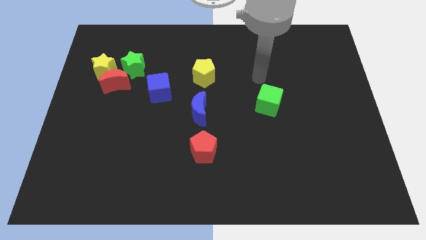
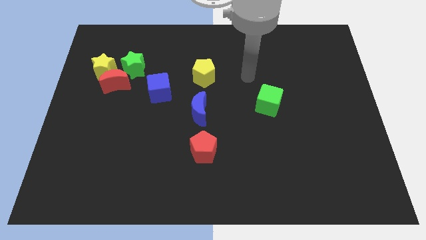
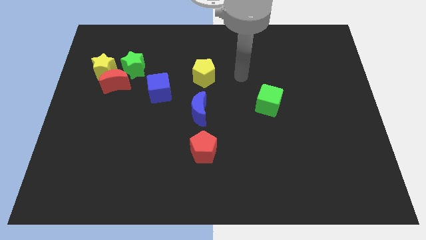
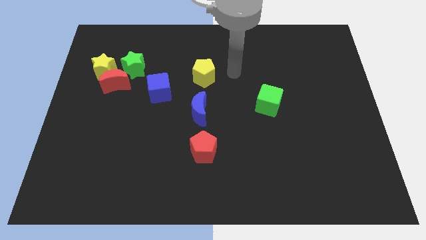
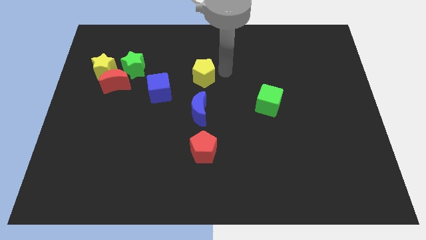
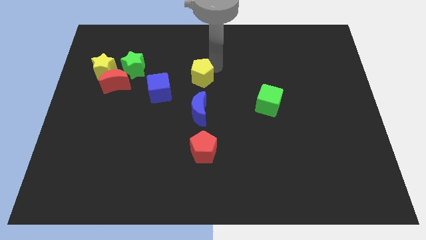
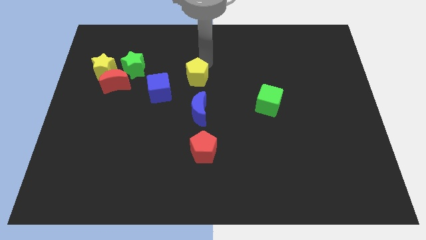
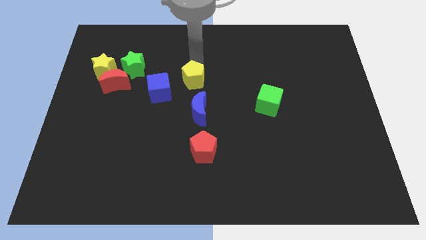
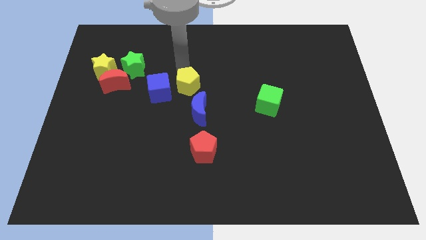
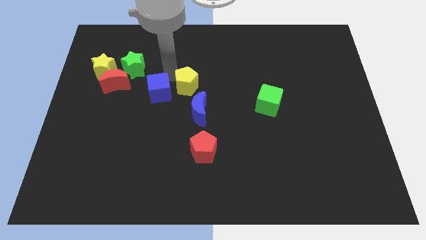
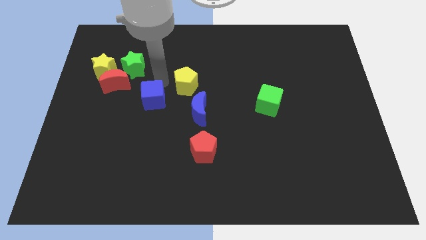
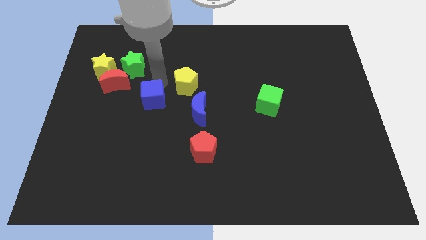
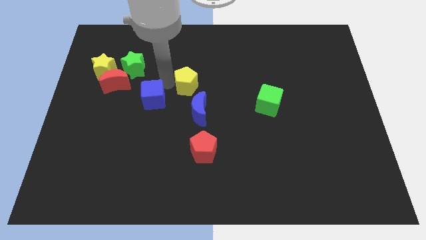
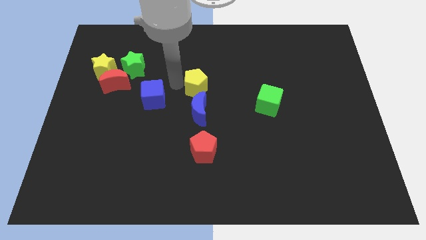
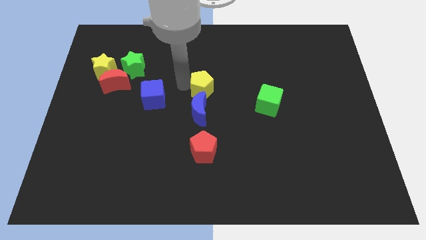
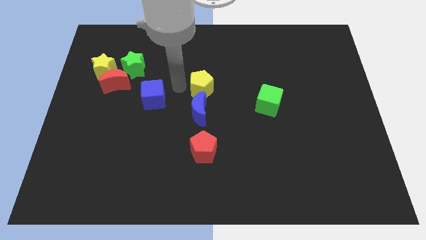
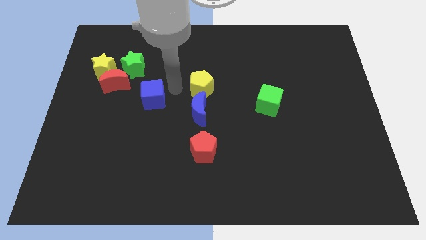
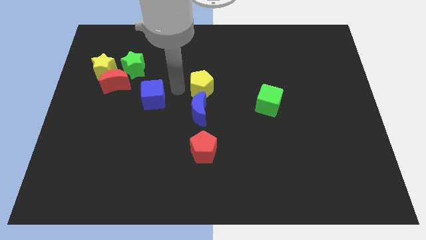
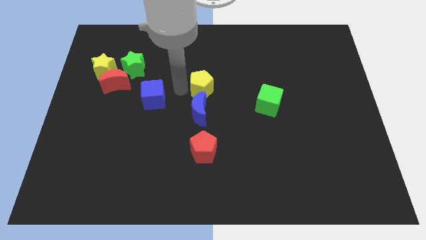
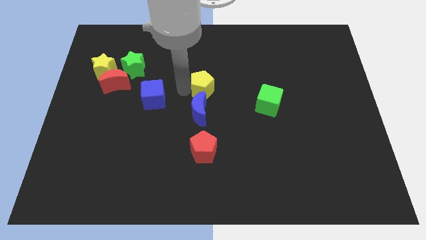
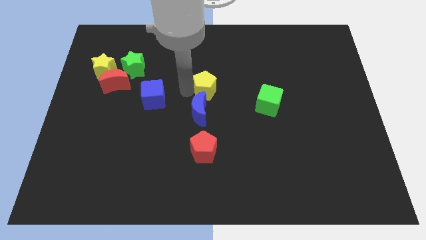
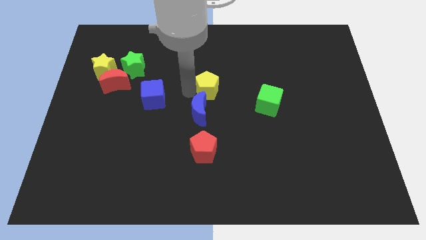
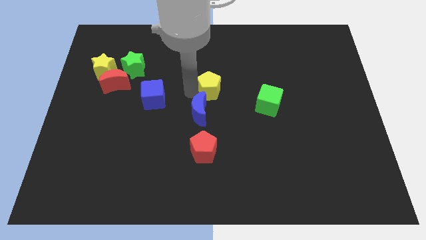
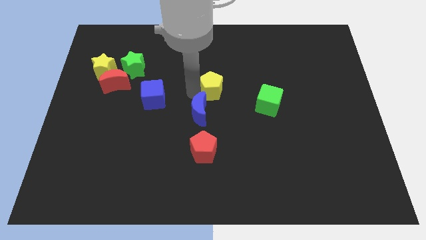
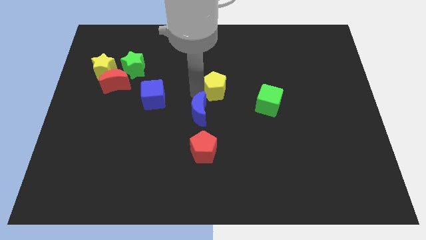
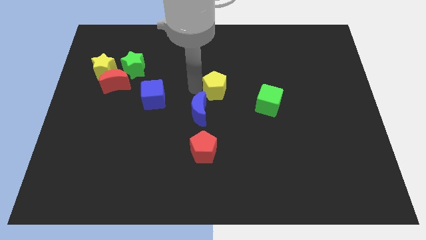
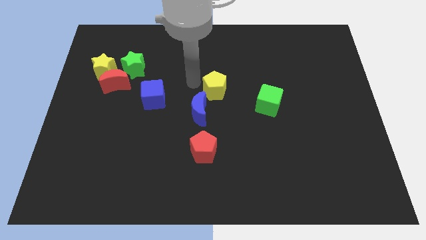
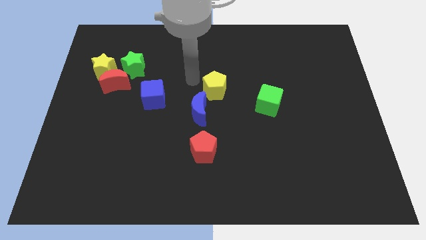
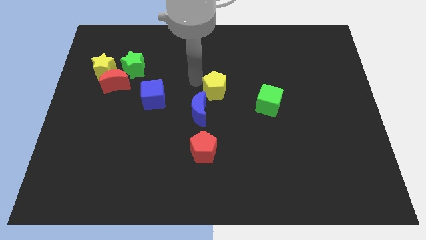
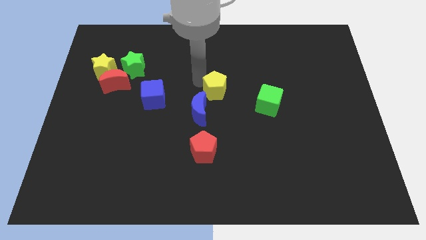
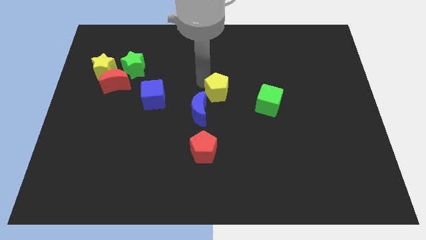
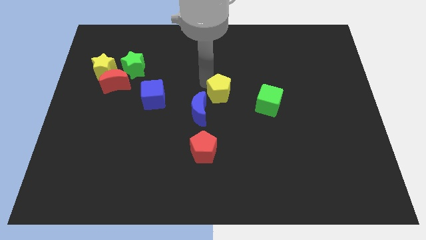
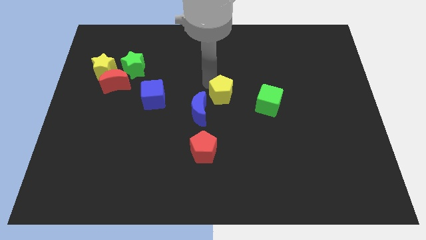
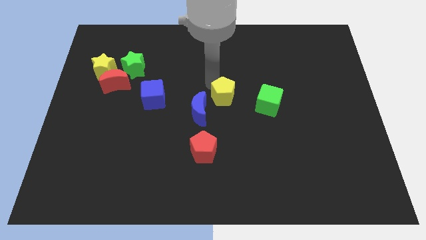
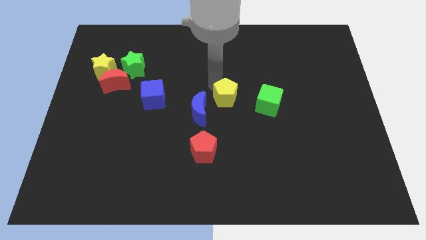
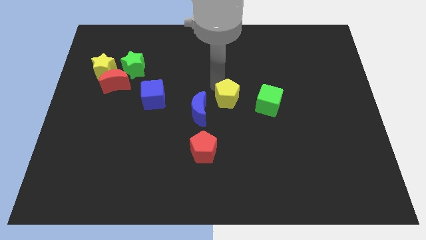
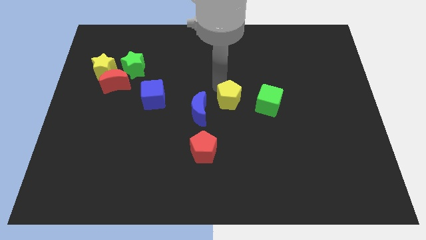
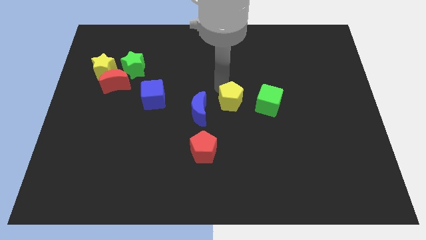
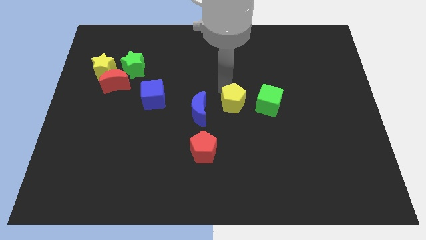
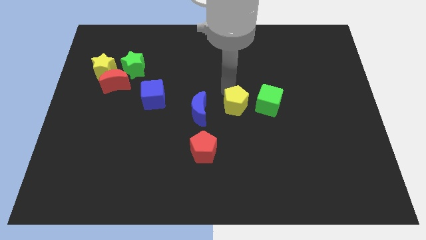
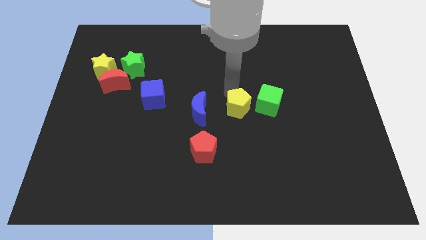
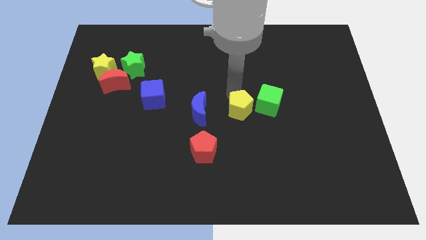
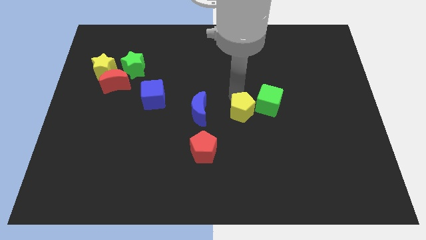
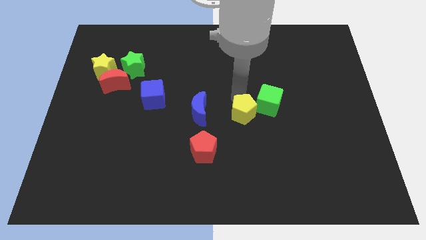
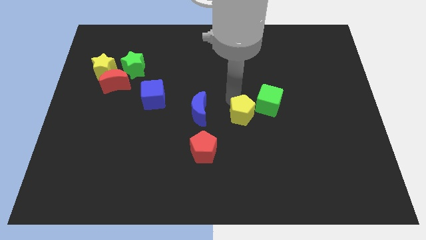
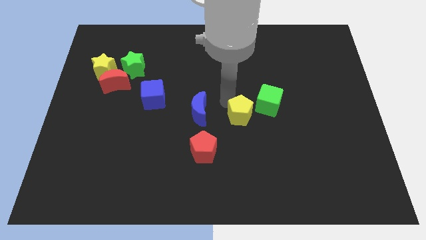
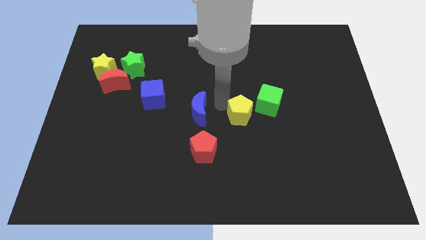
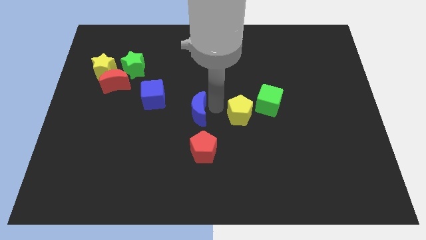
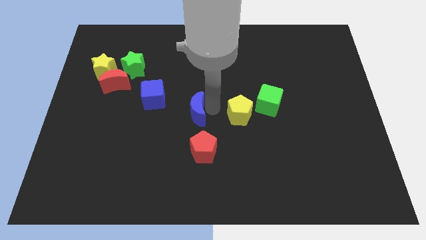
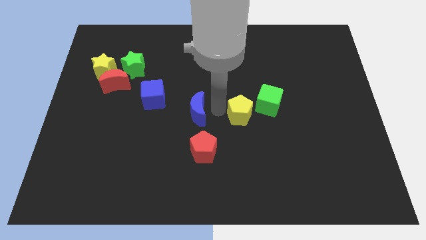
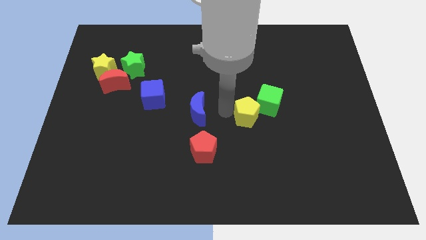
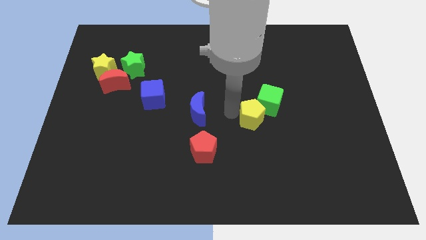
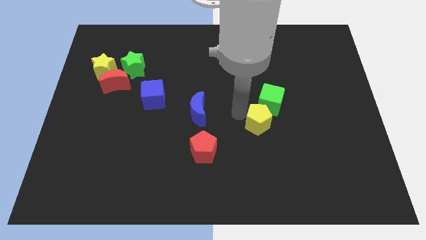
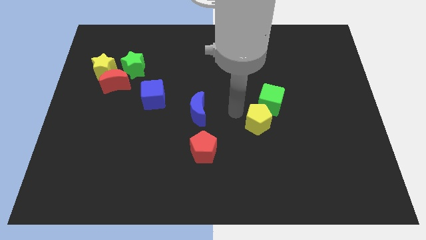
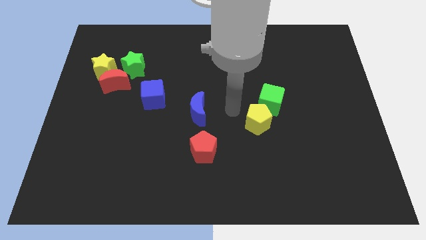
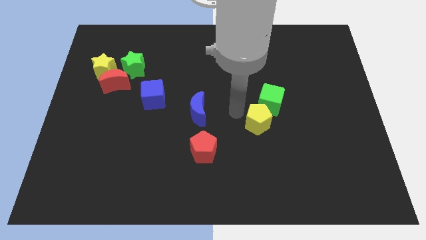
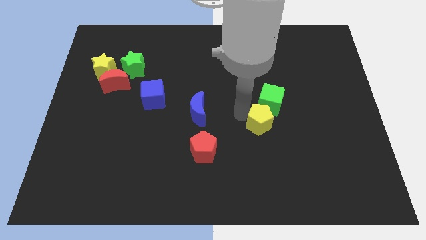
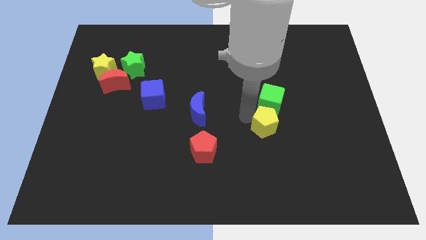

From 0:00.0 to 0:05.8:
move the yellow pentagon downwards and to the right

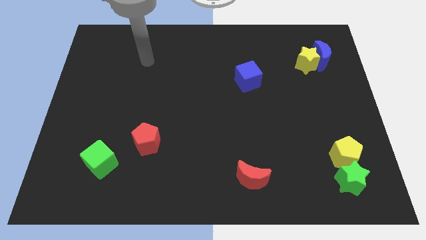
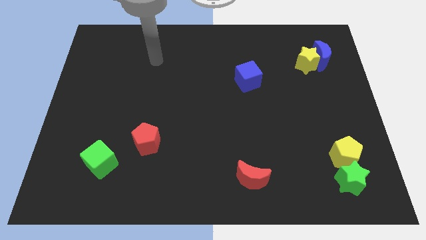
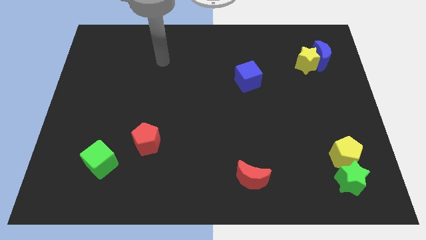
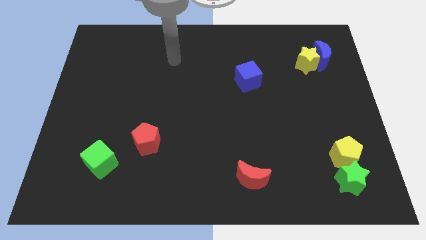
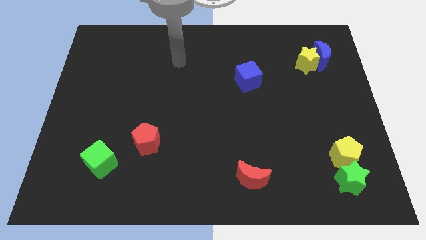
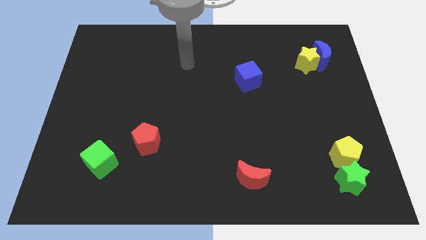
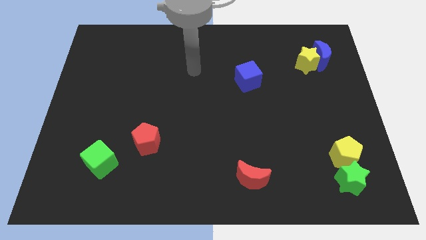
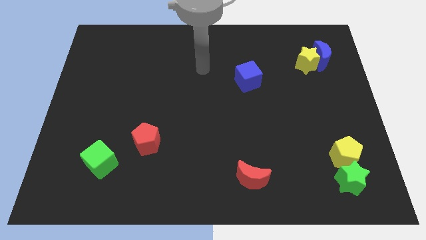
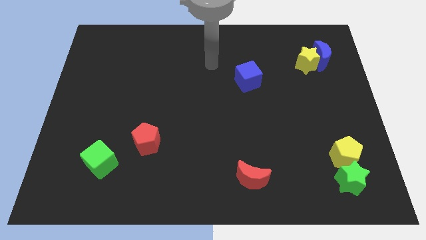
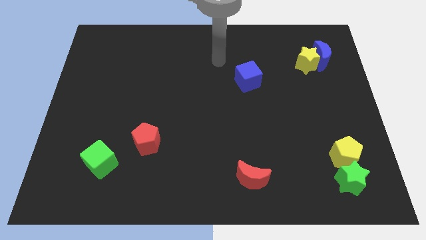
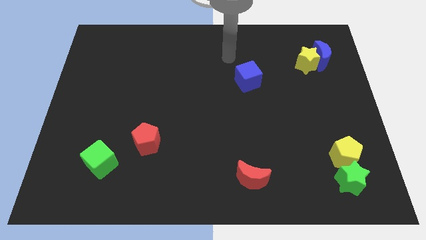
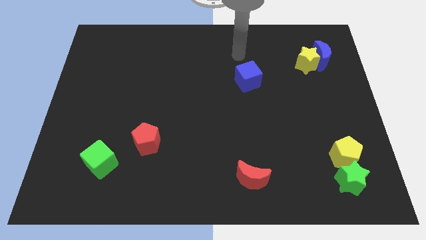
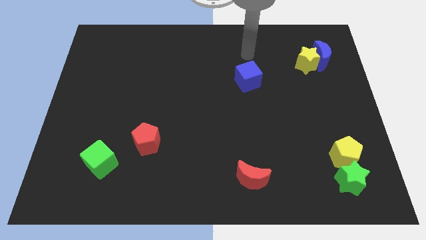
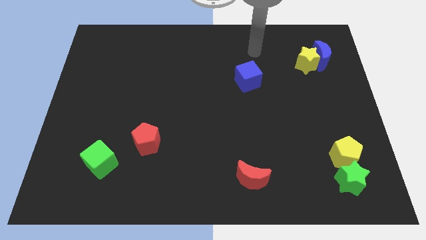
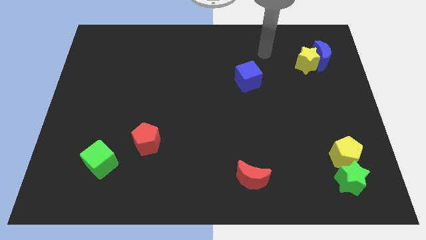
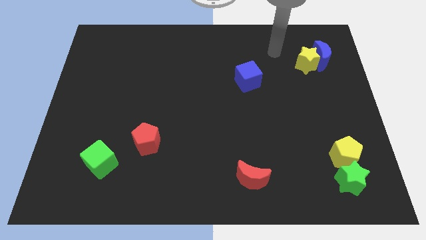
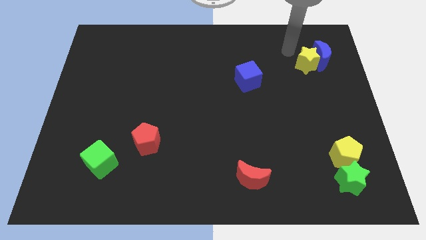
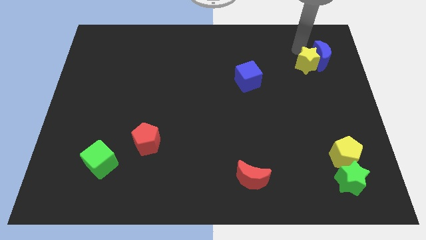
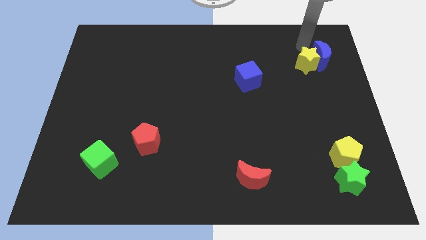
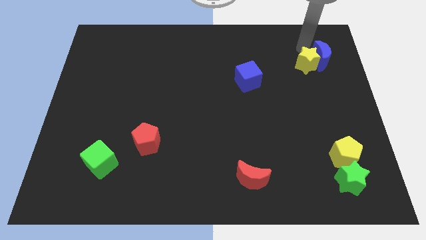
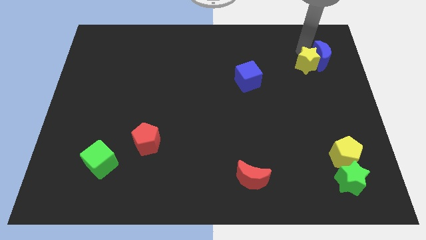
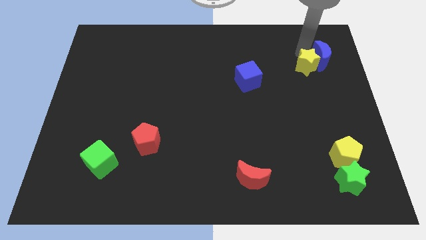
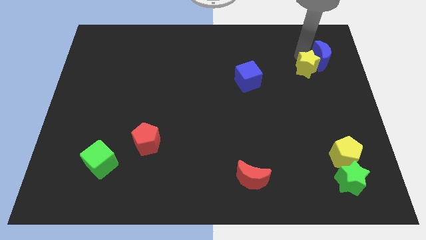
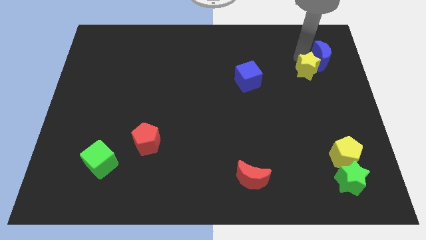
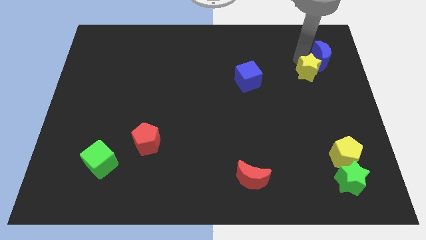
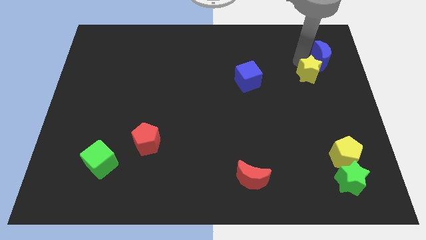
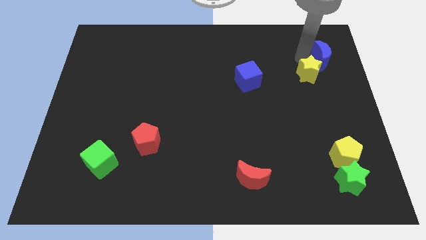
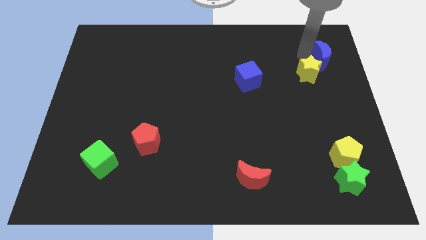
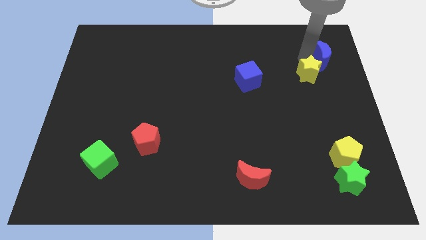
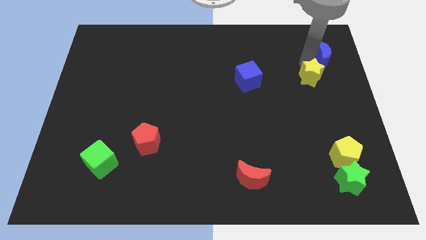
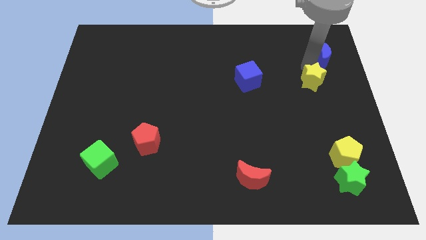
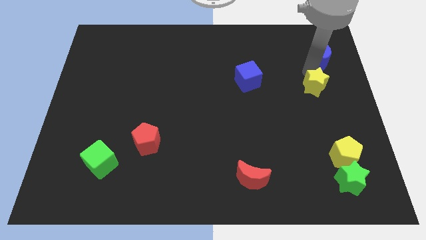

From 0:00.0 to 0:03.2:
slide the yellow star down slightly
